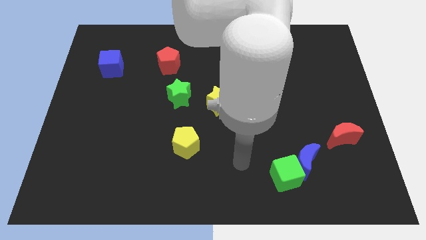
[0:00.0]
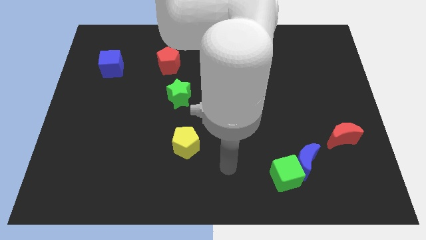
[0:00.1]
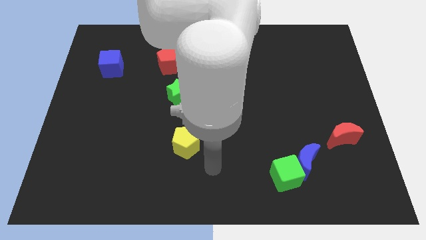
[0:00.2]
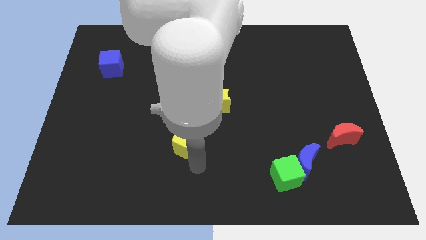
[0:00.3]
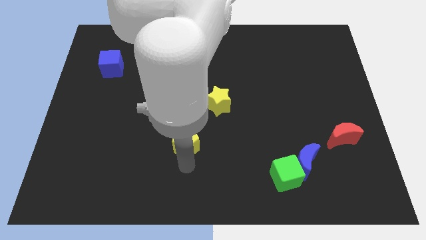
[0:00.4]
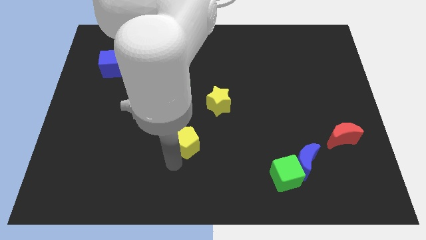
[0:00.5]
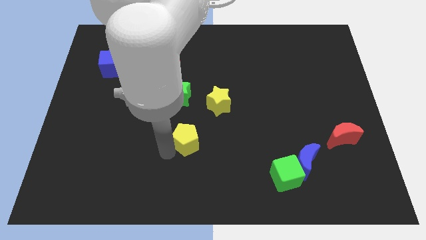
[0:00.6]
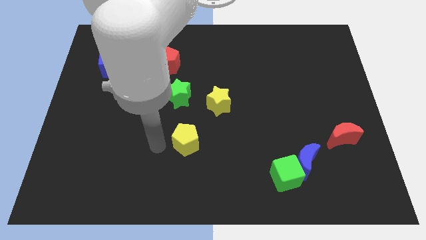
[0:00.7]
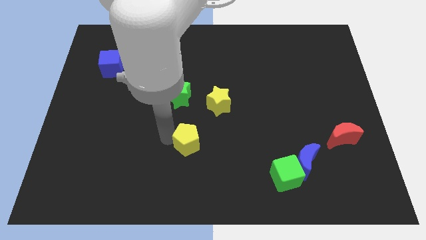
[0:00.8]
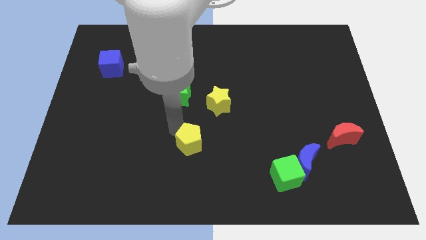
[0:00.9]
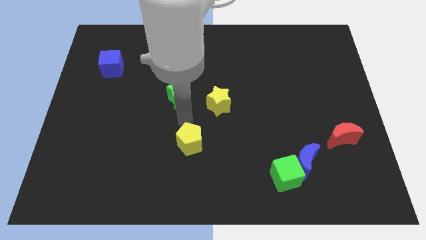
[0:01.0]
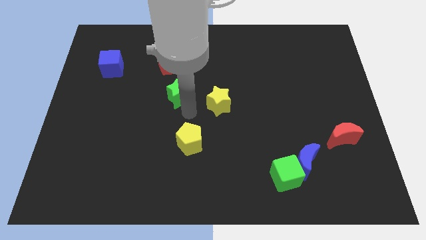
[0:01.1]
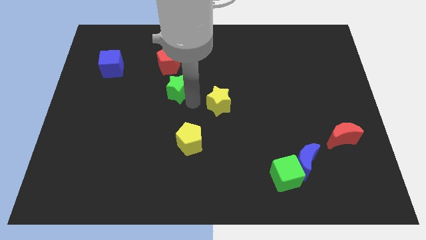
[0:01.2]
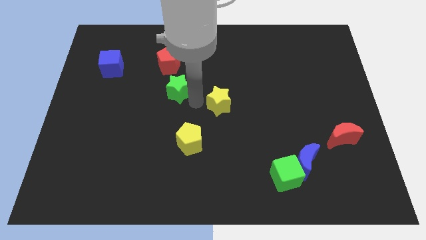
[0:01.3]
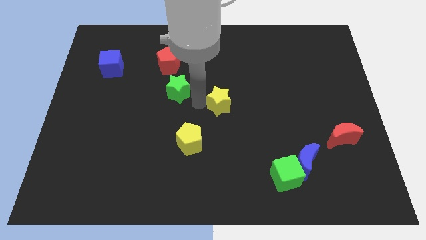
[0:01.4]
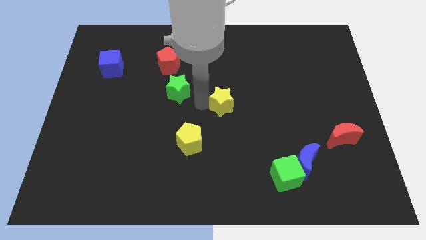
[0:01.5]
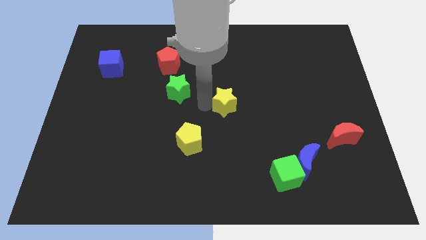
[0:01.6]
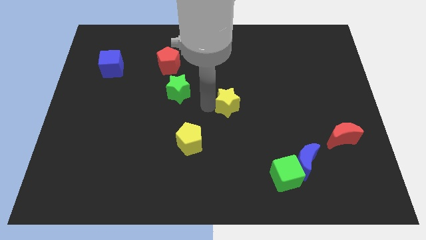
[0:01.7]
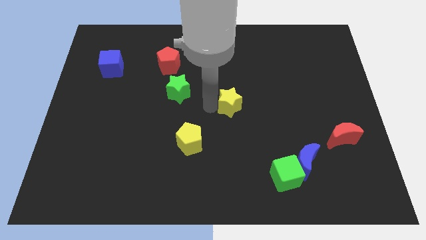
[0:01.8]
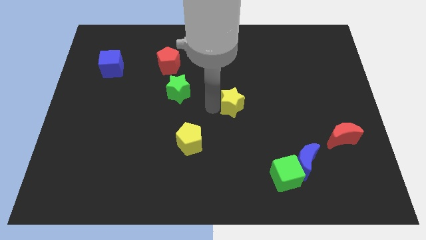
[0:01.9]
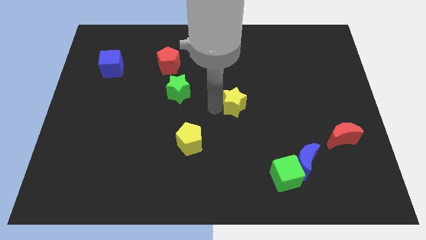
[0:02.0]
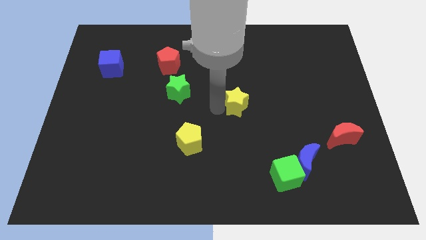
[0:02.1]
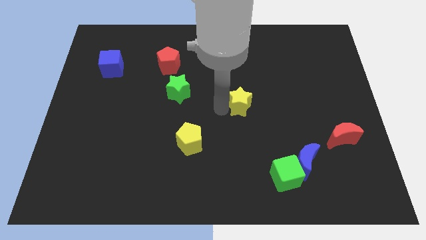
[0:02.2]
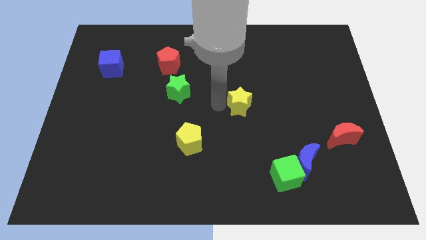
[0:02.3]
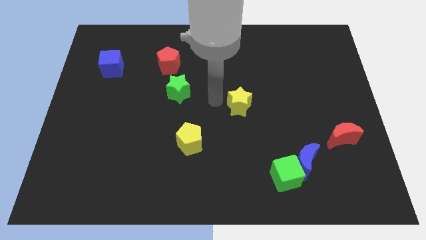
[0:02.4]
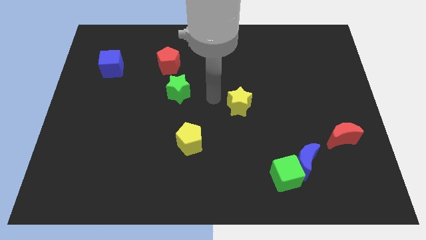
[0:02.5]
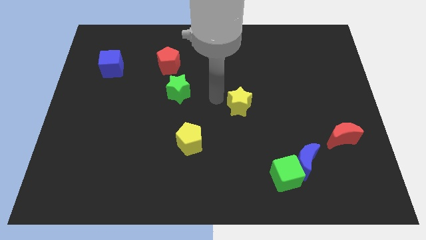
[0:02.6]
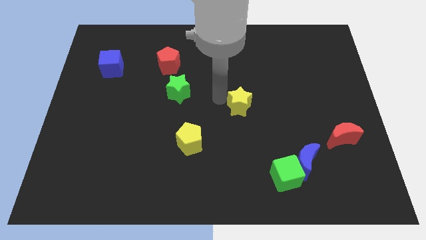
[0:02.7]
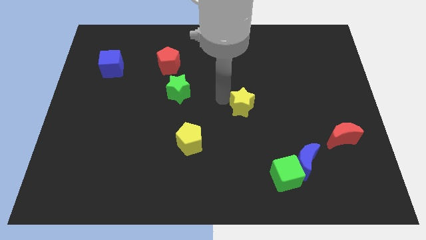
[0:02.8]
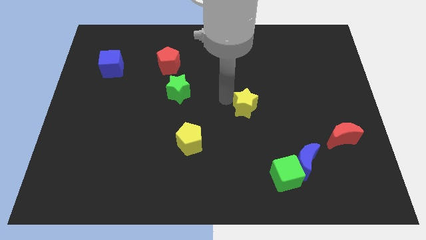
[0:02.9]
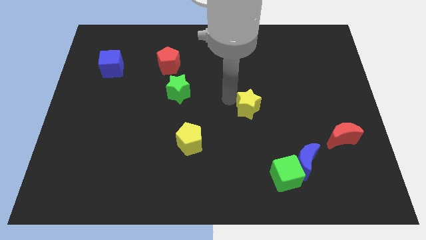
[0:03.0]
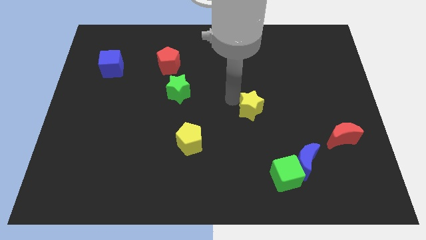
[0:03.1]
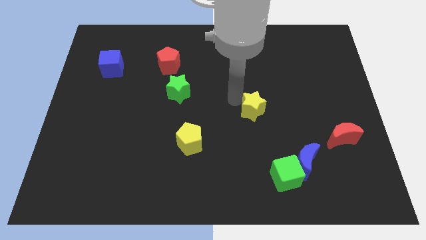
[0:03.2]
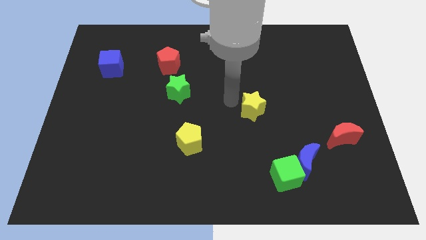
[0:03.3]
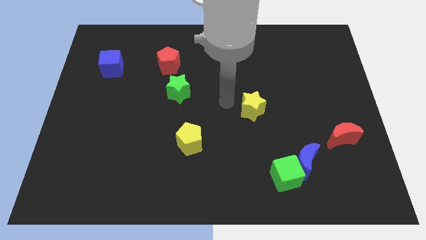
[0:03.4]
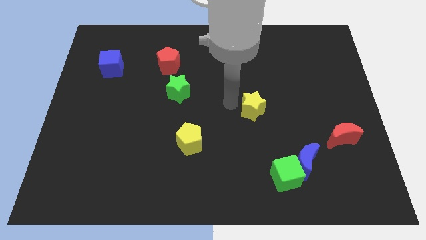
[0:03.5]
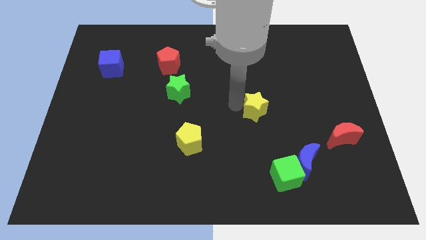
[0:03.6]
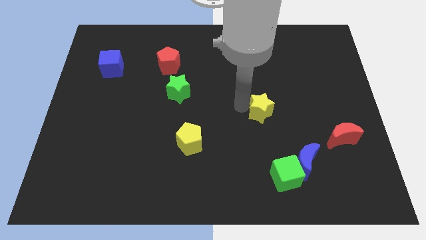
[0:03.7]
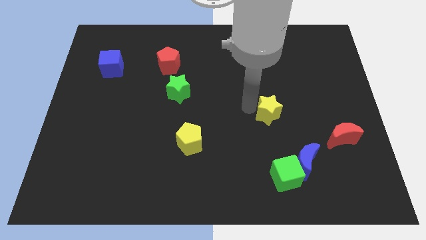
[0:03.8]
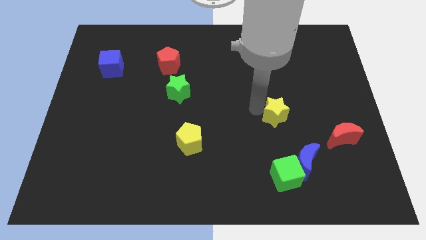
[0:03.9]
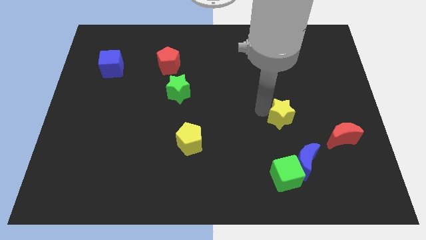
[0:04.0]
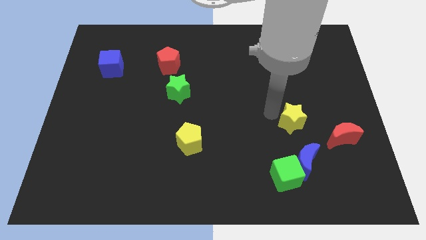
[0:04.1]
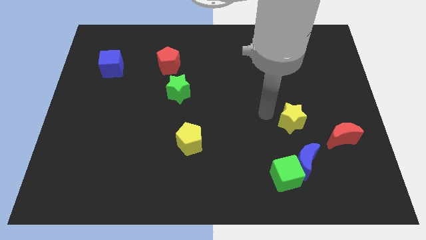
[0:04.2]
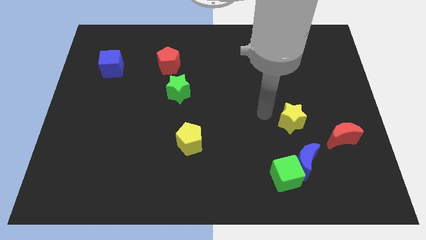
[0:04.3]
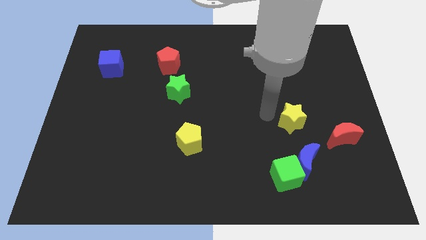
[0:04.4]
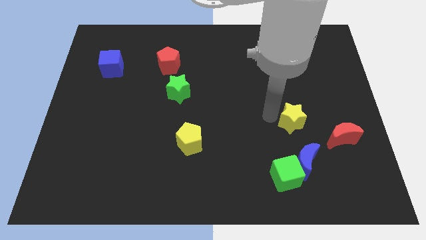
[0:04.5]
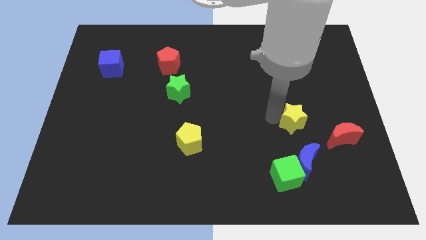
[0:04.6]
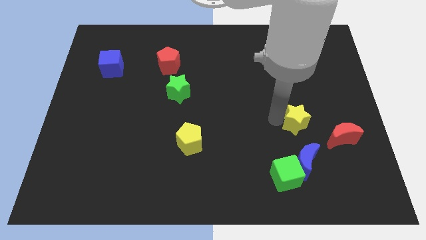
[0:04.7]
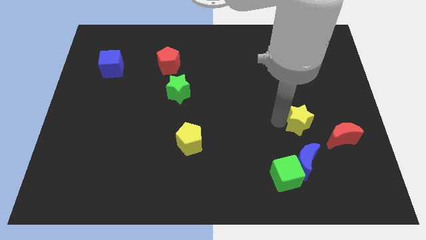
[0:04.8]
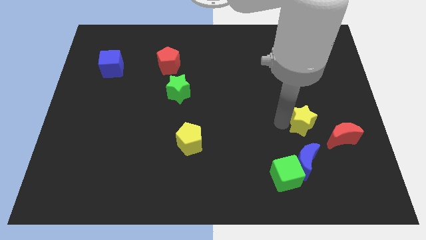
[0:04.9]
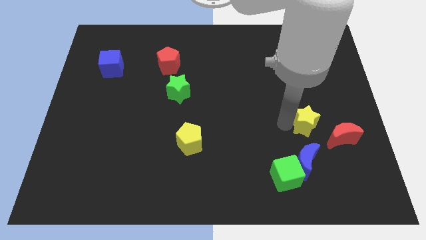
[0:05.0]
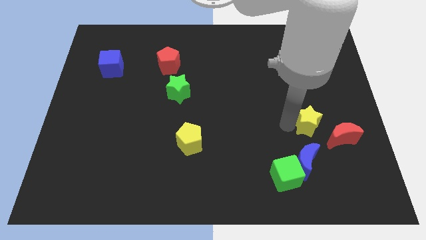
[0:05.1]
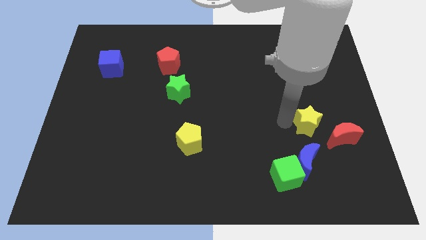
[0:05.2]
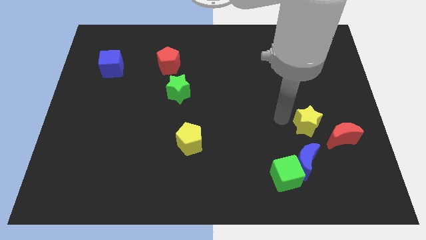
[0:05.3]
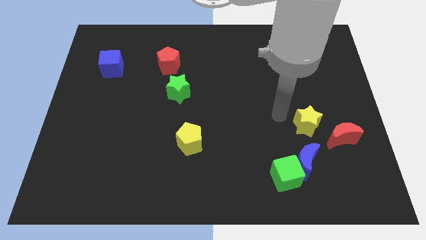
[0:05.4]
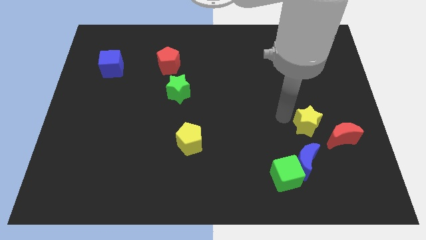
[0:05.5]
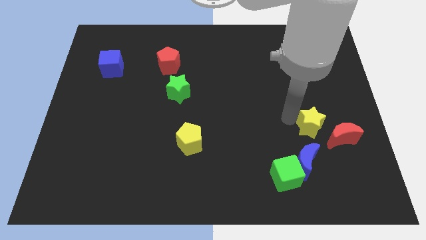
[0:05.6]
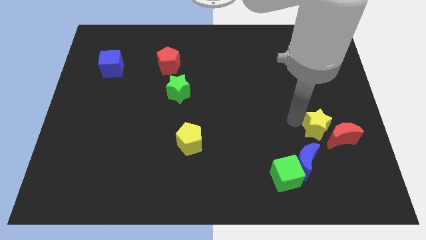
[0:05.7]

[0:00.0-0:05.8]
slide the yellow star close to the red moon

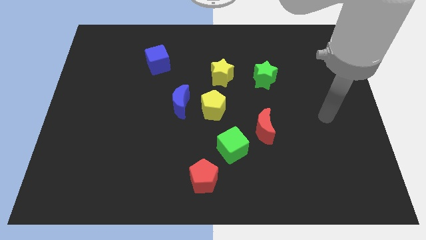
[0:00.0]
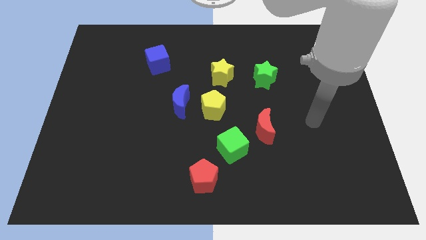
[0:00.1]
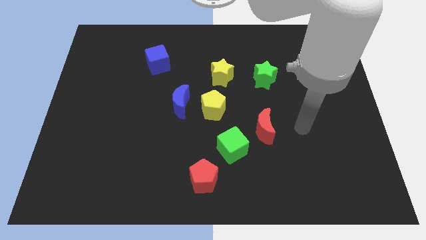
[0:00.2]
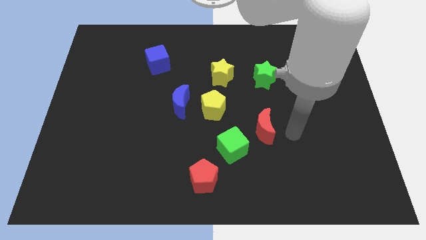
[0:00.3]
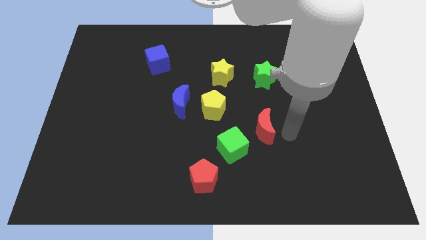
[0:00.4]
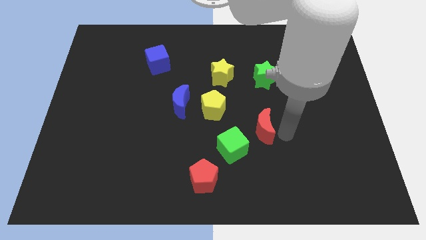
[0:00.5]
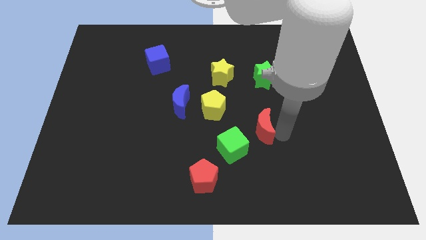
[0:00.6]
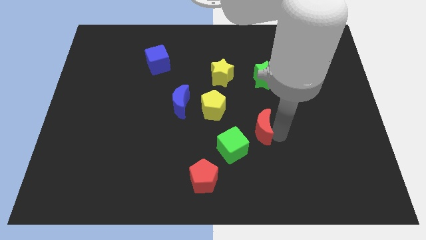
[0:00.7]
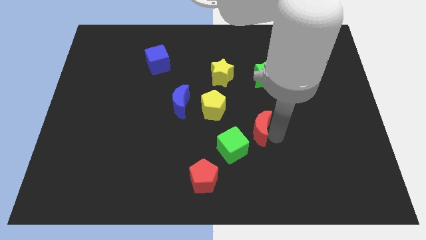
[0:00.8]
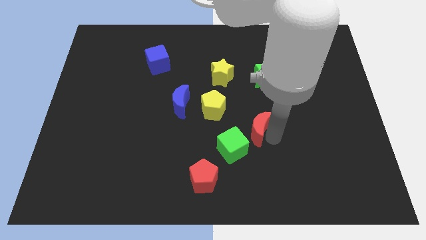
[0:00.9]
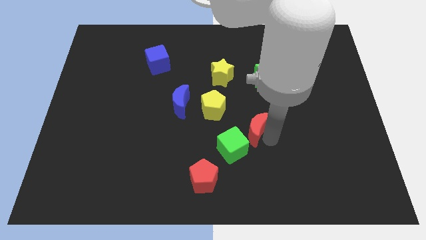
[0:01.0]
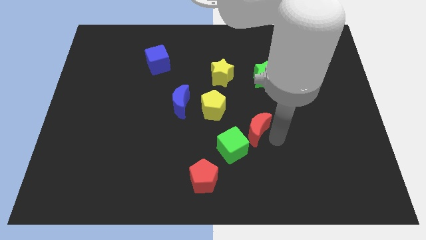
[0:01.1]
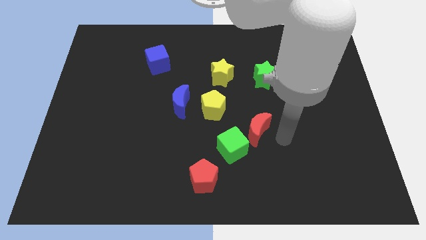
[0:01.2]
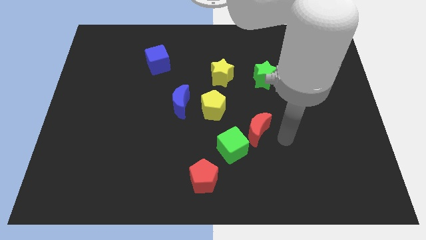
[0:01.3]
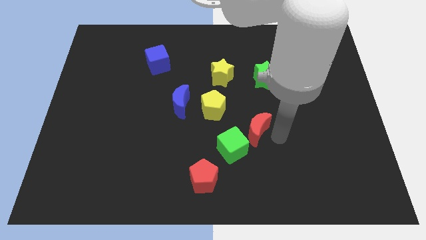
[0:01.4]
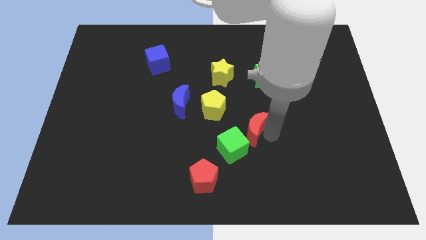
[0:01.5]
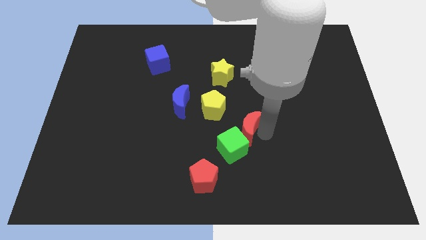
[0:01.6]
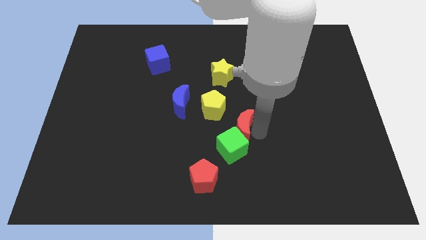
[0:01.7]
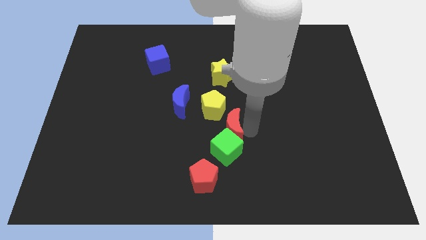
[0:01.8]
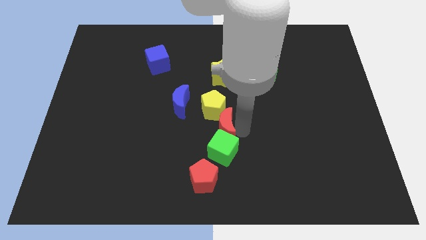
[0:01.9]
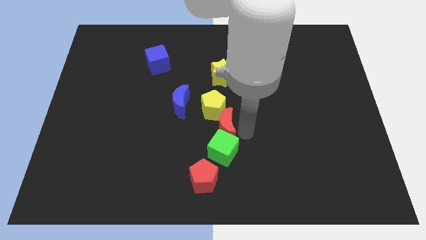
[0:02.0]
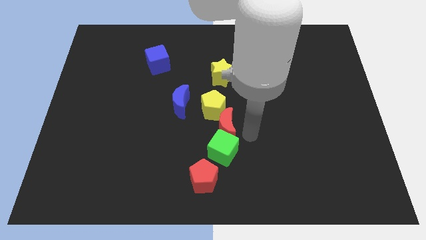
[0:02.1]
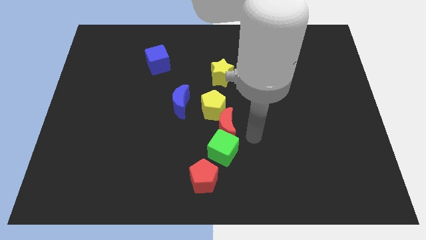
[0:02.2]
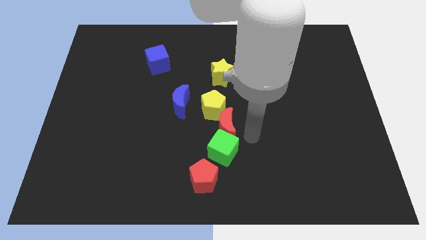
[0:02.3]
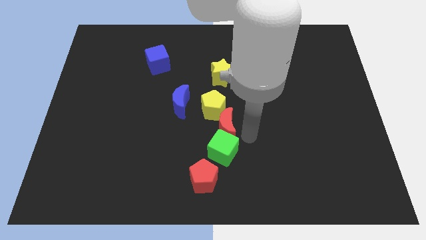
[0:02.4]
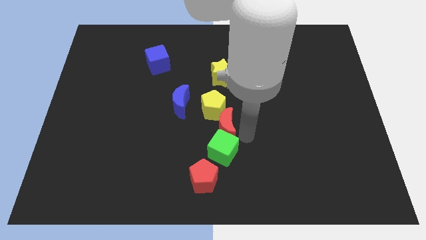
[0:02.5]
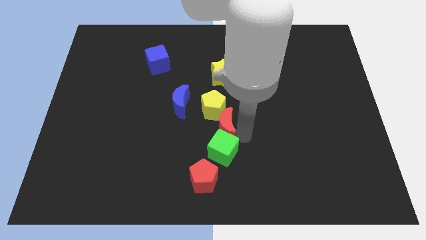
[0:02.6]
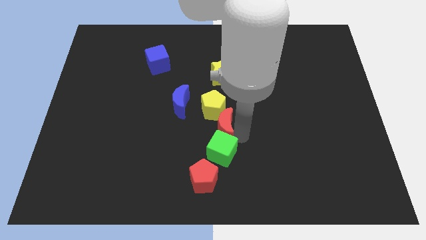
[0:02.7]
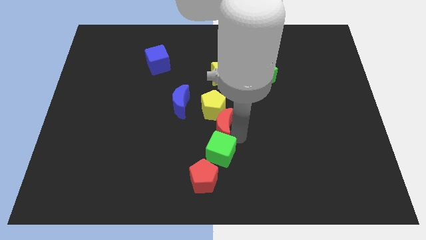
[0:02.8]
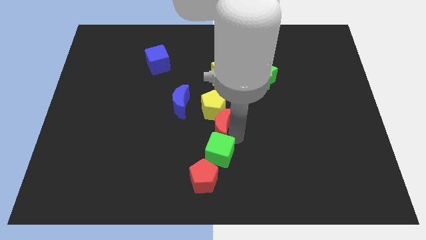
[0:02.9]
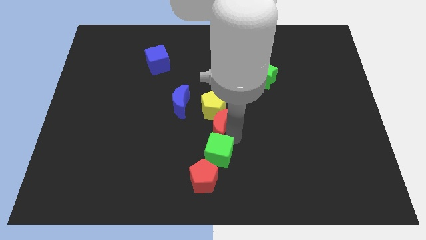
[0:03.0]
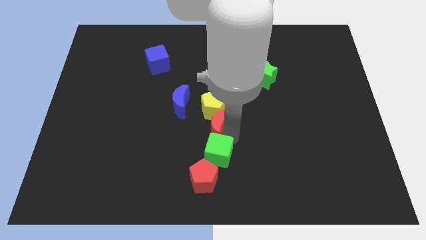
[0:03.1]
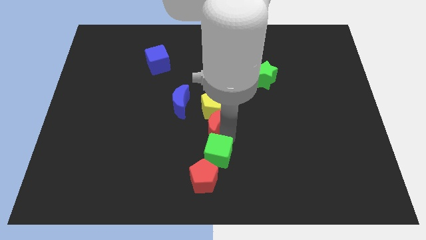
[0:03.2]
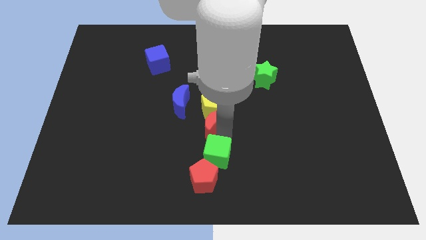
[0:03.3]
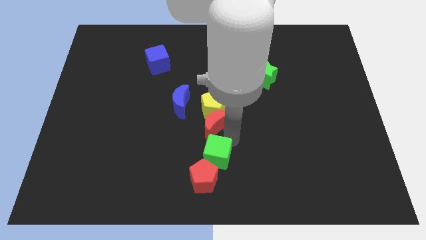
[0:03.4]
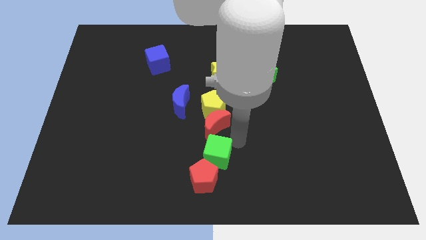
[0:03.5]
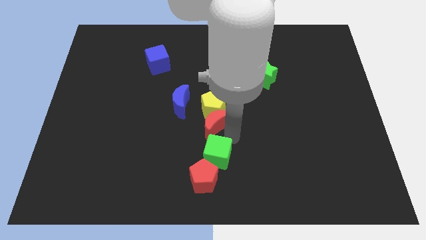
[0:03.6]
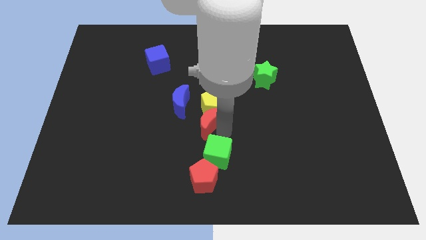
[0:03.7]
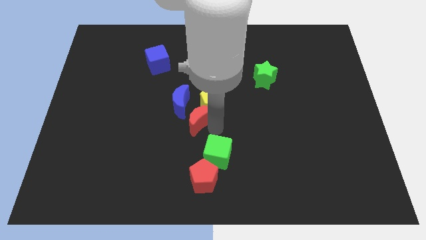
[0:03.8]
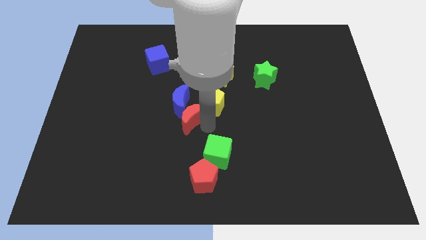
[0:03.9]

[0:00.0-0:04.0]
put the red moon to the blue moon
